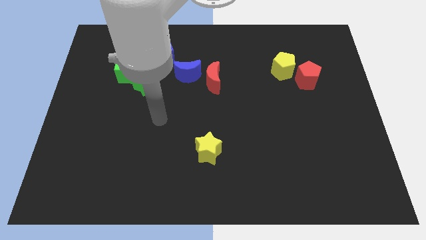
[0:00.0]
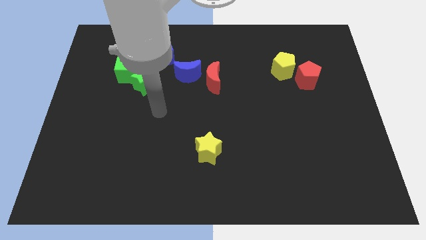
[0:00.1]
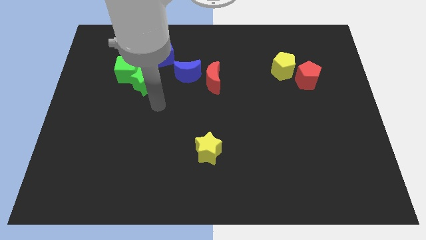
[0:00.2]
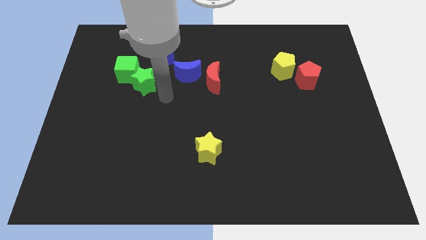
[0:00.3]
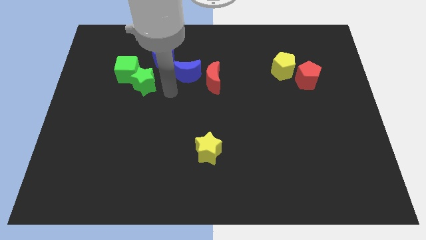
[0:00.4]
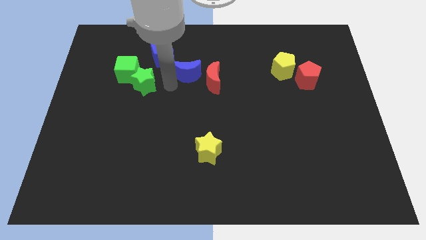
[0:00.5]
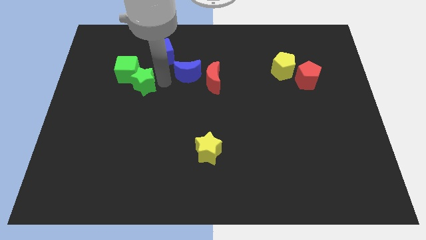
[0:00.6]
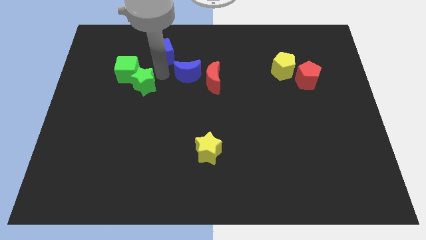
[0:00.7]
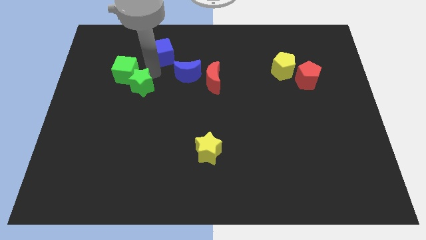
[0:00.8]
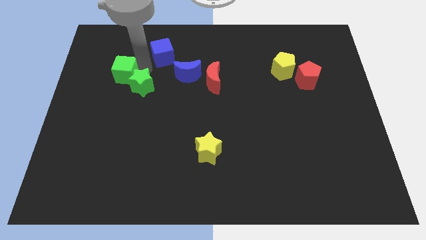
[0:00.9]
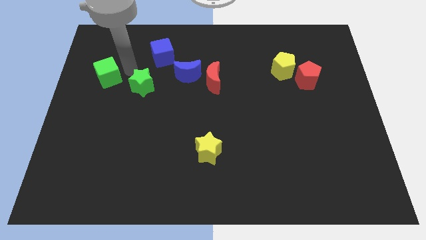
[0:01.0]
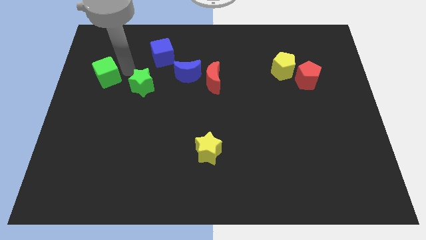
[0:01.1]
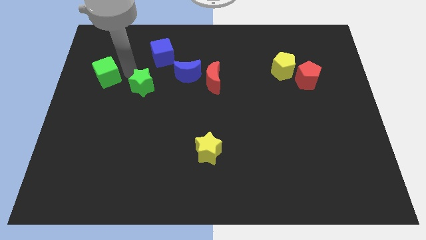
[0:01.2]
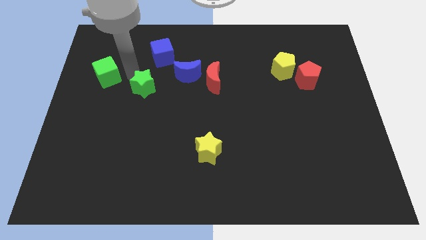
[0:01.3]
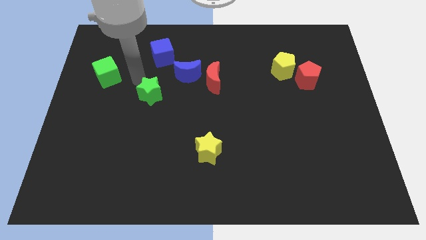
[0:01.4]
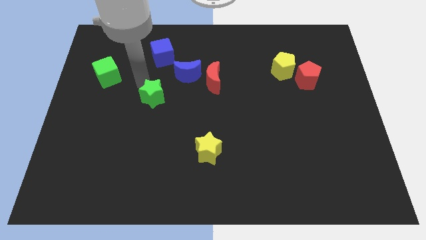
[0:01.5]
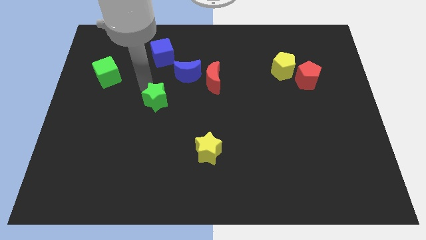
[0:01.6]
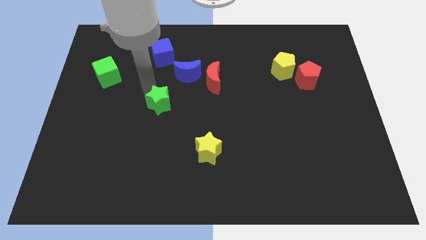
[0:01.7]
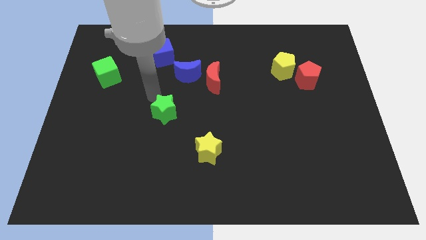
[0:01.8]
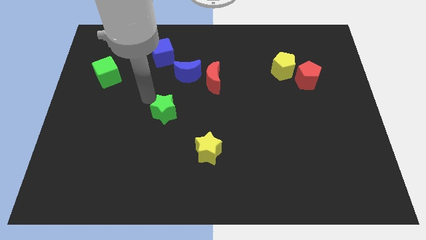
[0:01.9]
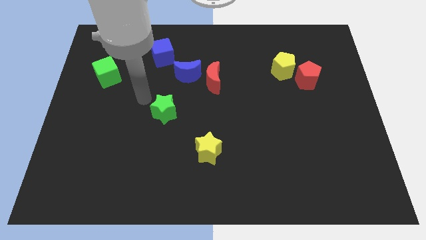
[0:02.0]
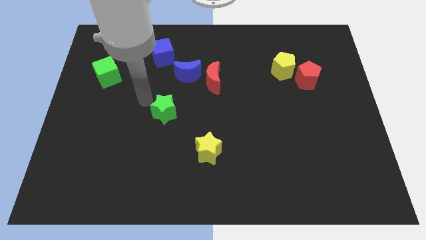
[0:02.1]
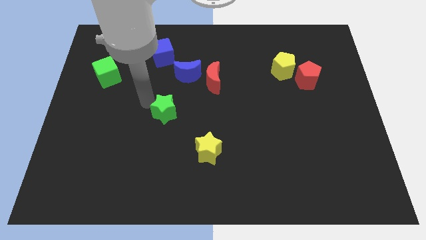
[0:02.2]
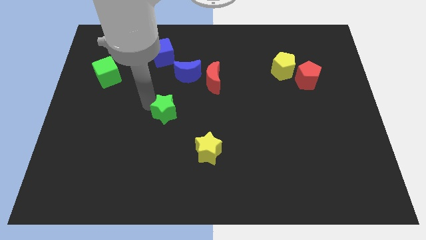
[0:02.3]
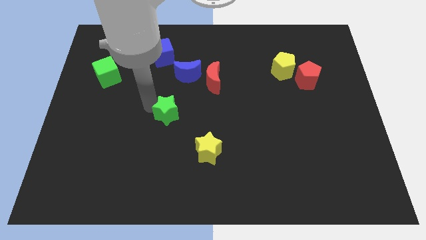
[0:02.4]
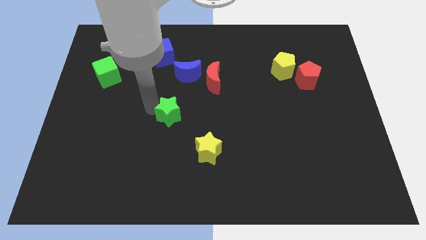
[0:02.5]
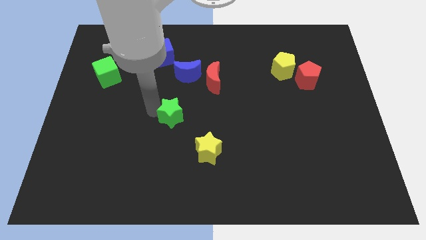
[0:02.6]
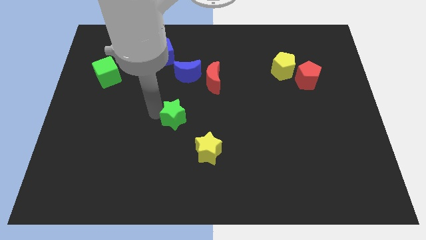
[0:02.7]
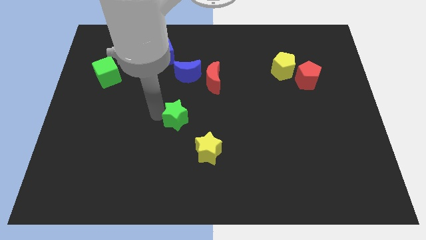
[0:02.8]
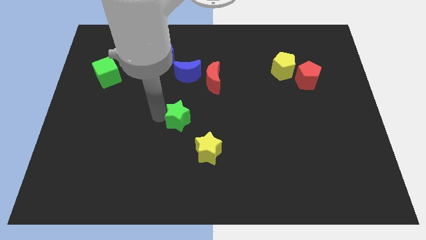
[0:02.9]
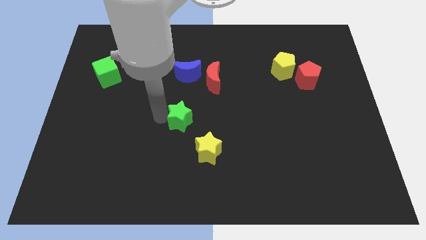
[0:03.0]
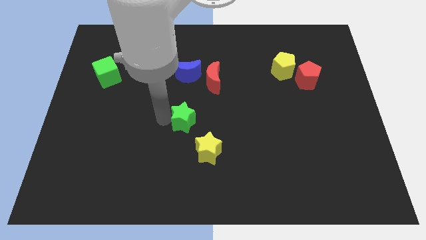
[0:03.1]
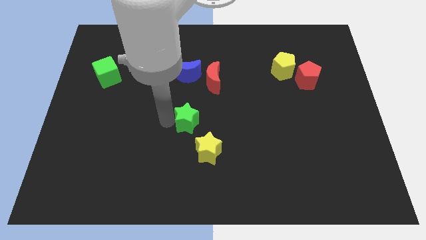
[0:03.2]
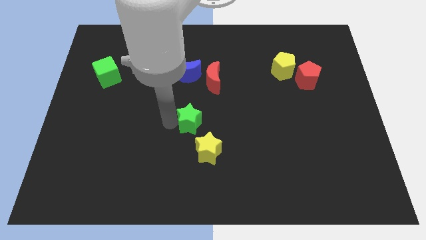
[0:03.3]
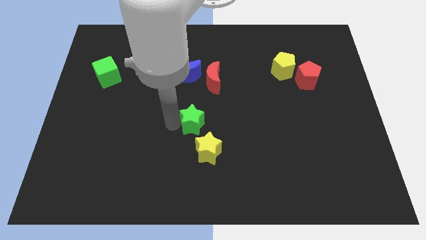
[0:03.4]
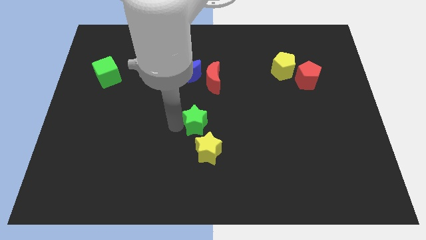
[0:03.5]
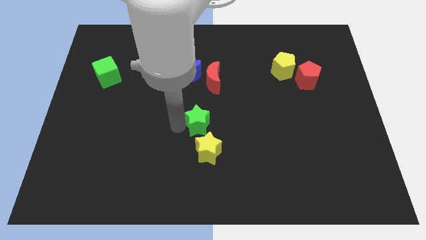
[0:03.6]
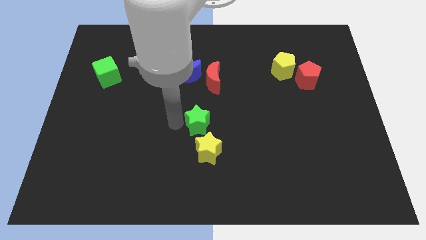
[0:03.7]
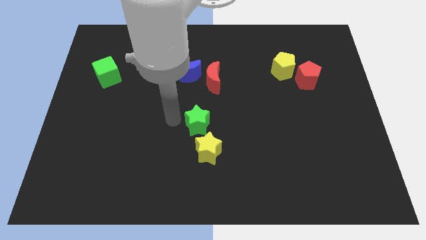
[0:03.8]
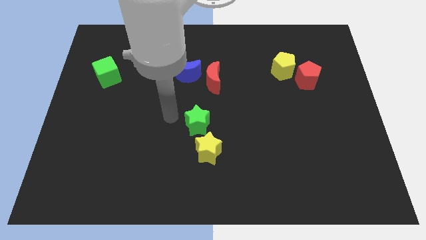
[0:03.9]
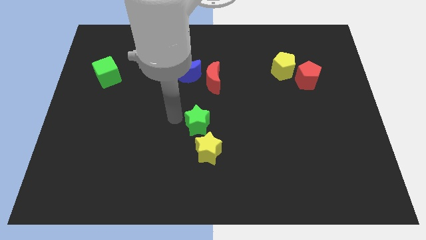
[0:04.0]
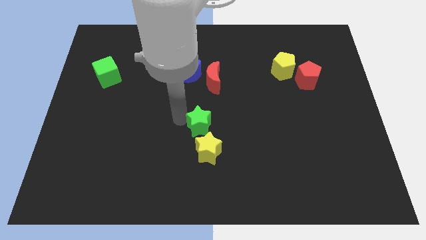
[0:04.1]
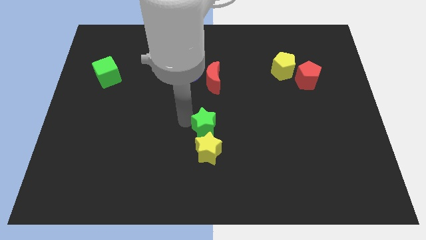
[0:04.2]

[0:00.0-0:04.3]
push the green star down and to the right diagonally

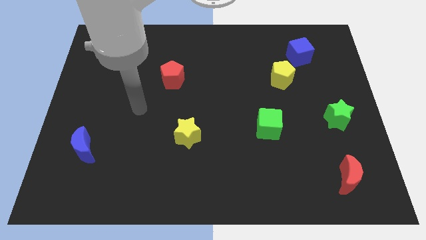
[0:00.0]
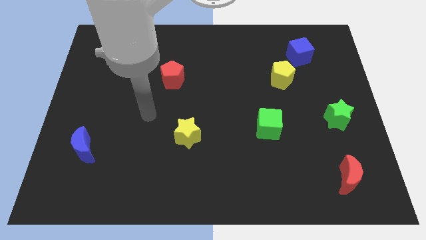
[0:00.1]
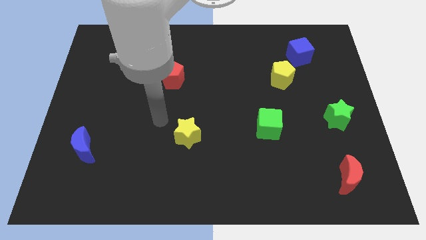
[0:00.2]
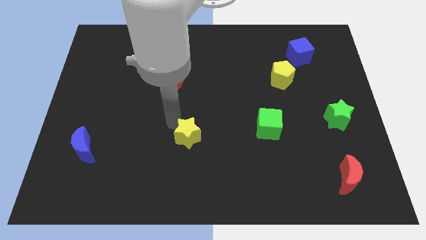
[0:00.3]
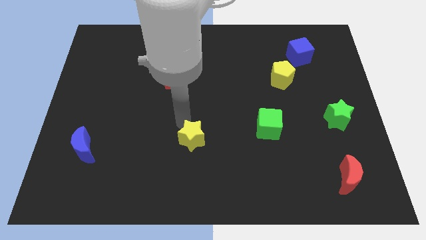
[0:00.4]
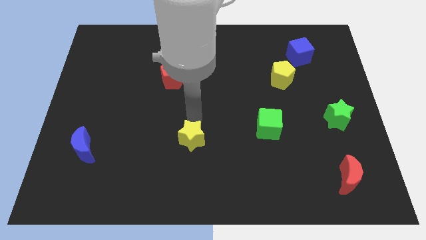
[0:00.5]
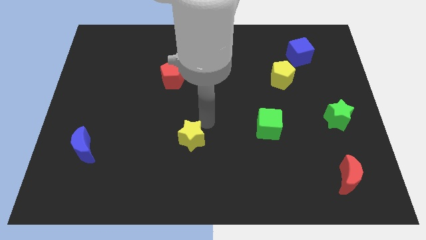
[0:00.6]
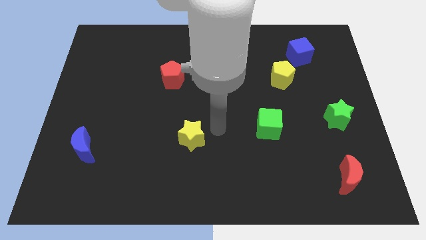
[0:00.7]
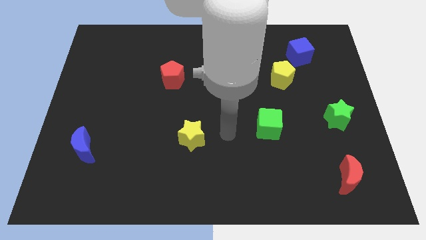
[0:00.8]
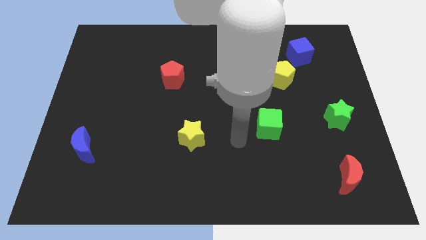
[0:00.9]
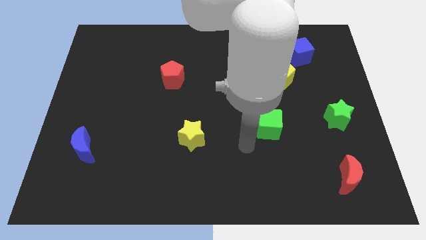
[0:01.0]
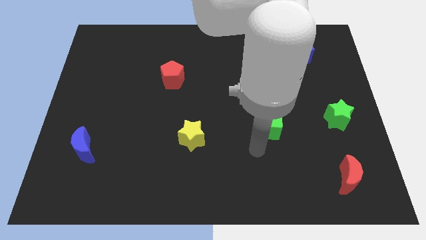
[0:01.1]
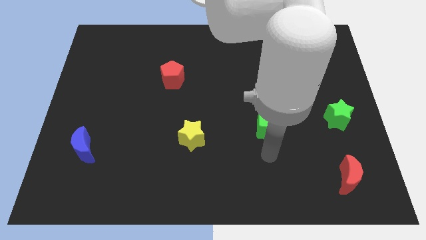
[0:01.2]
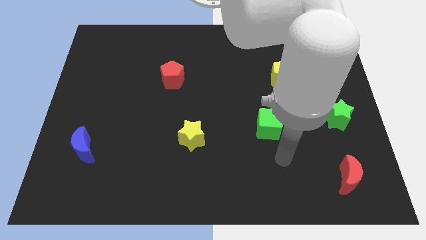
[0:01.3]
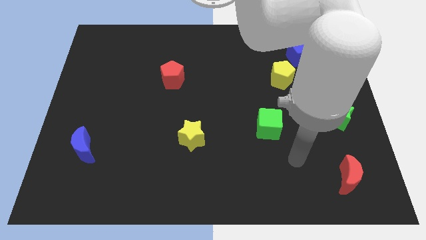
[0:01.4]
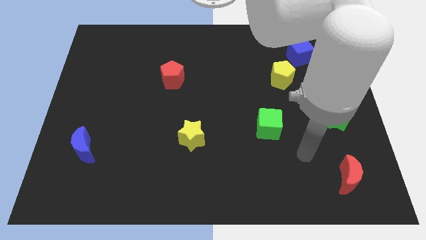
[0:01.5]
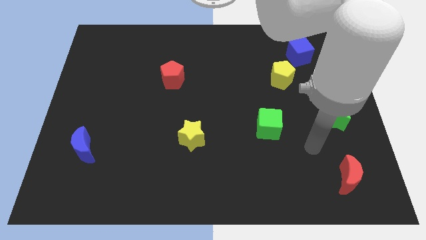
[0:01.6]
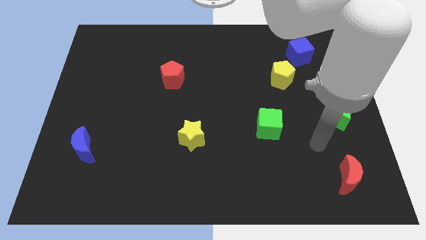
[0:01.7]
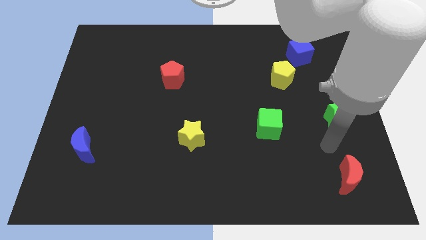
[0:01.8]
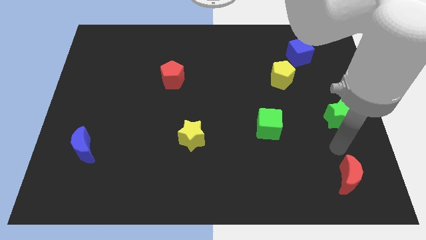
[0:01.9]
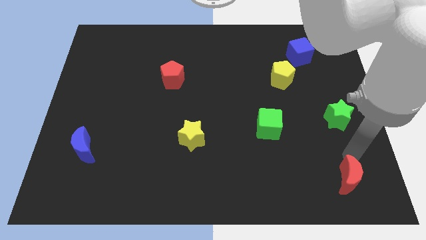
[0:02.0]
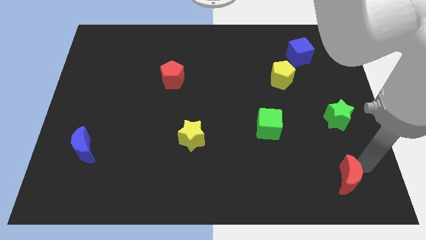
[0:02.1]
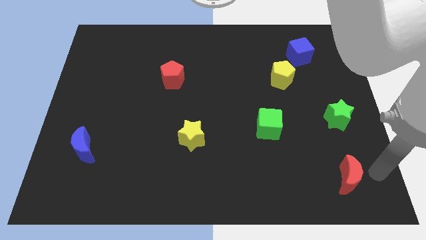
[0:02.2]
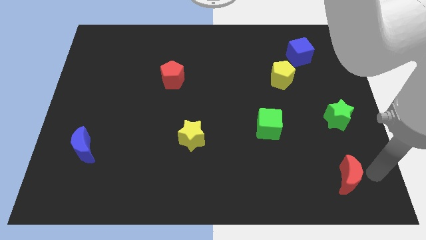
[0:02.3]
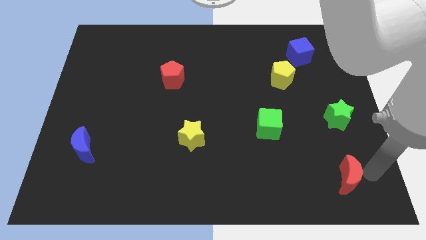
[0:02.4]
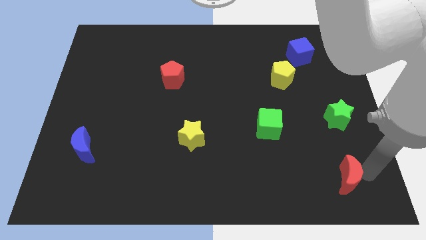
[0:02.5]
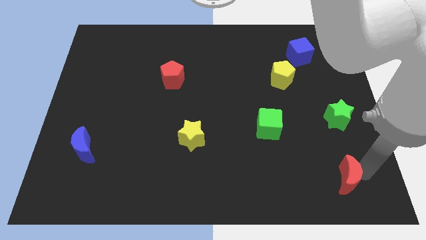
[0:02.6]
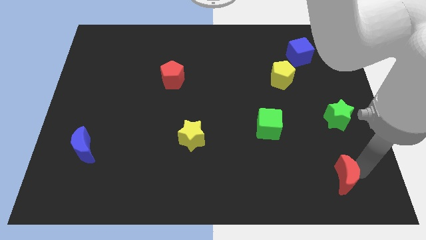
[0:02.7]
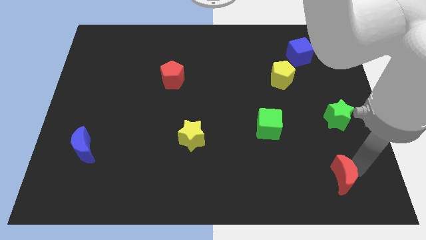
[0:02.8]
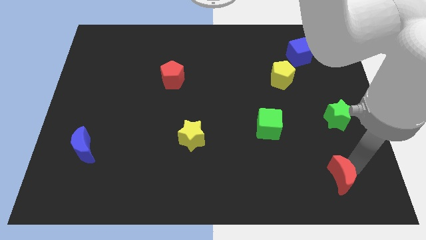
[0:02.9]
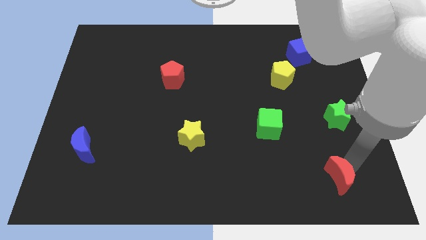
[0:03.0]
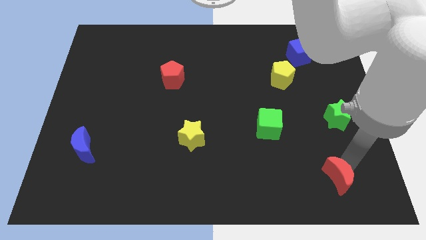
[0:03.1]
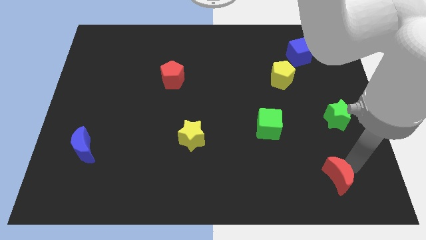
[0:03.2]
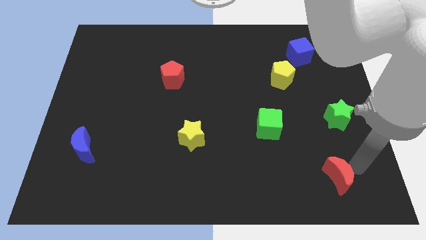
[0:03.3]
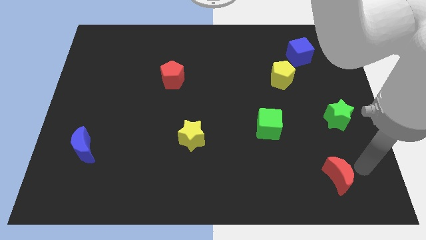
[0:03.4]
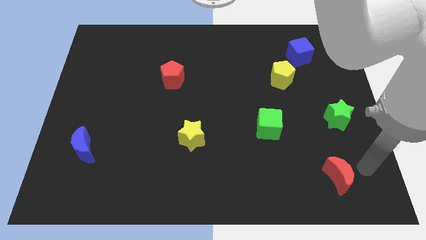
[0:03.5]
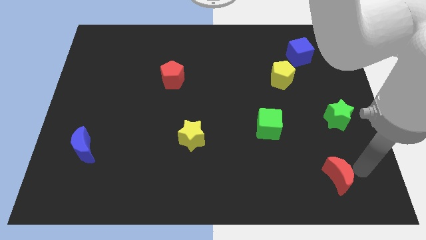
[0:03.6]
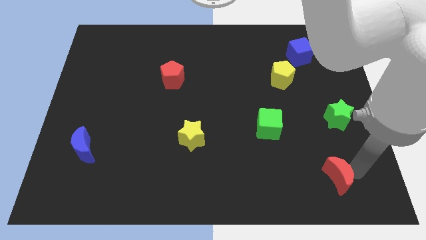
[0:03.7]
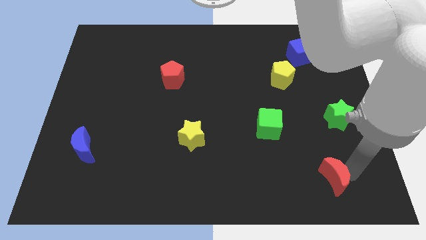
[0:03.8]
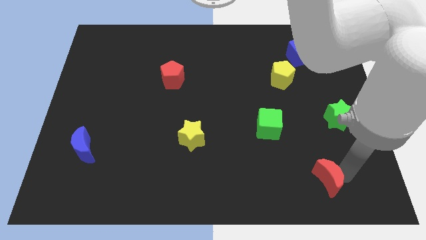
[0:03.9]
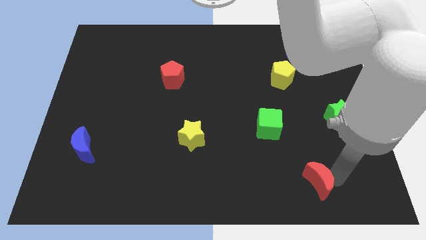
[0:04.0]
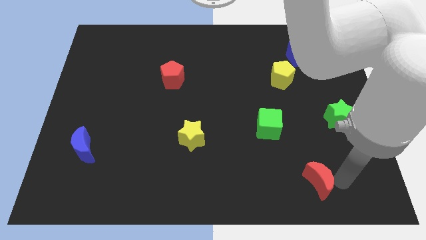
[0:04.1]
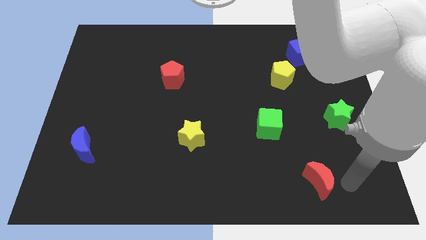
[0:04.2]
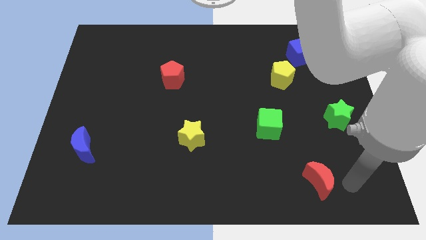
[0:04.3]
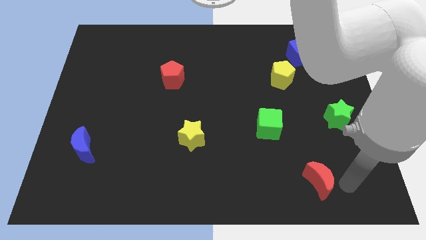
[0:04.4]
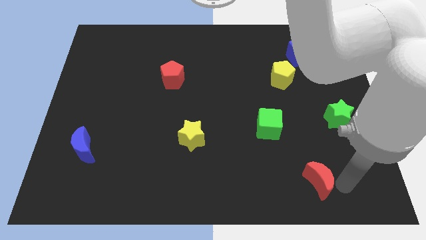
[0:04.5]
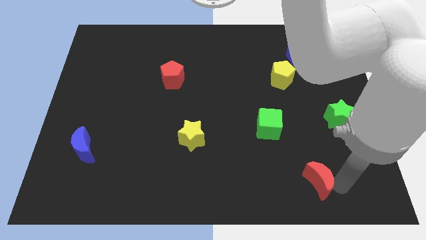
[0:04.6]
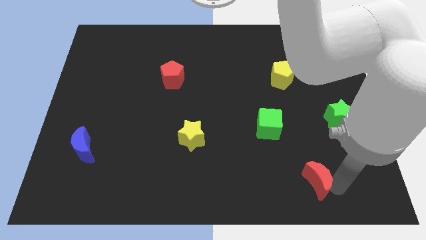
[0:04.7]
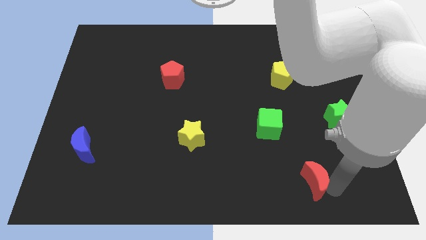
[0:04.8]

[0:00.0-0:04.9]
push the red moon a little left
